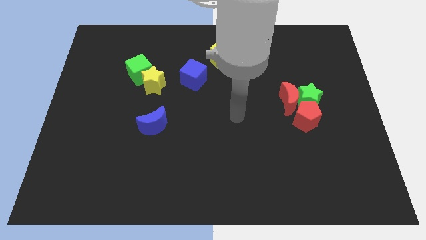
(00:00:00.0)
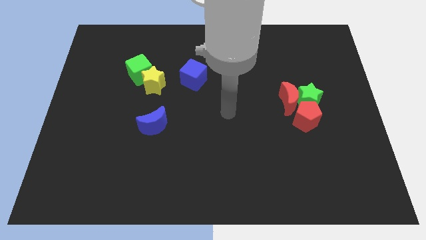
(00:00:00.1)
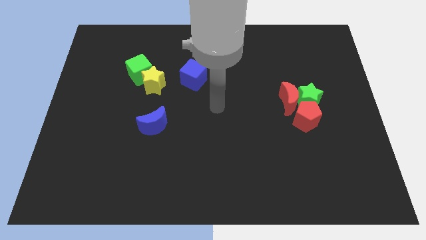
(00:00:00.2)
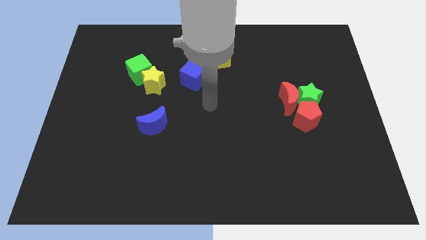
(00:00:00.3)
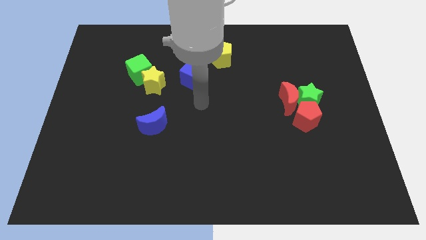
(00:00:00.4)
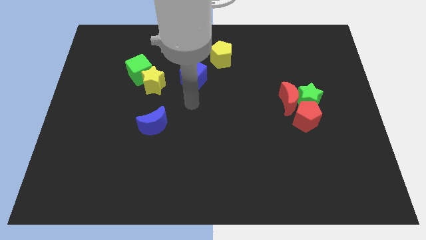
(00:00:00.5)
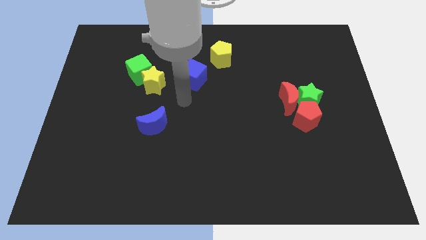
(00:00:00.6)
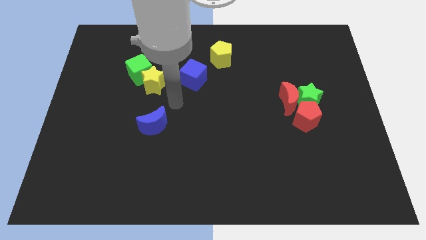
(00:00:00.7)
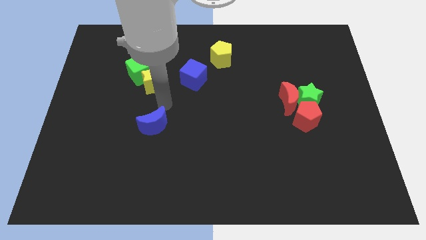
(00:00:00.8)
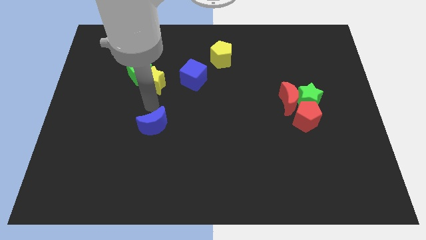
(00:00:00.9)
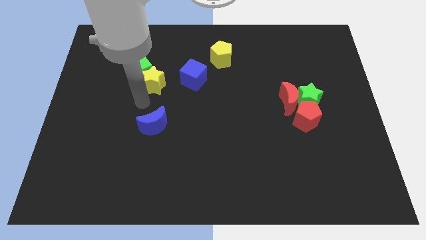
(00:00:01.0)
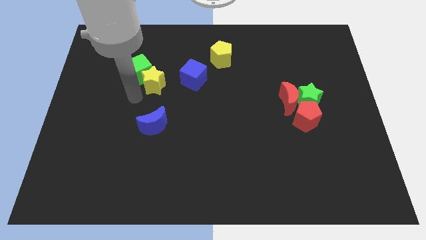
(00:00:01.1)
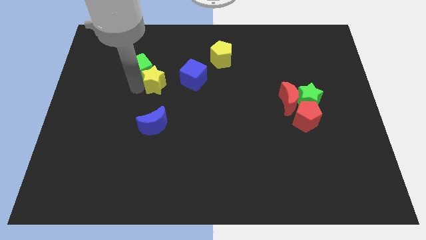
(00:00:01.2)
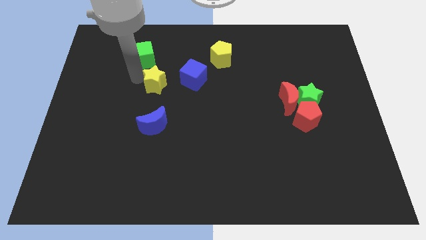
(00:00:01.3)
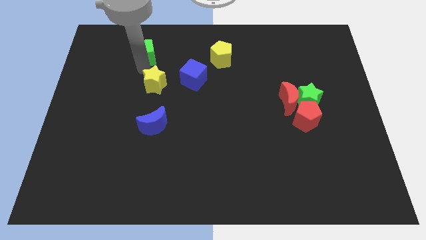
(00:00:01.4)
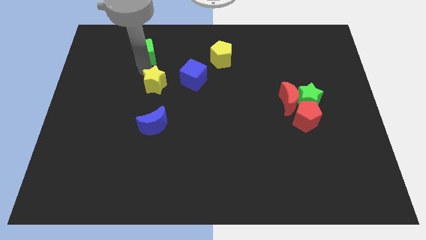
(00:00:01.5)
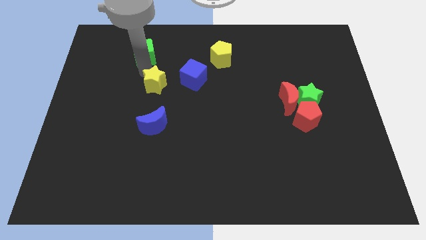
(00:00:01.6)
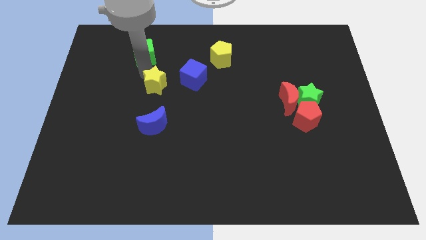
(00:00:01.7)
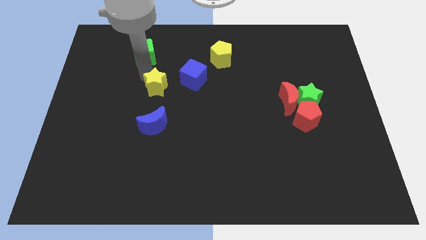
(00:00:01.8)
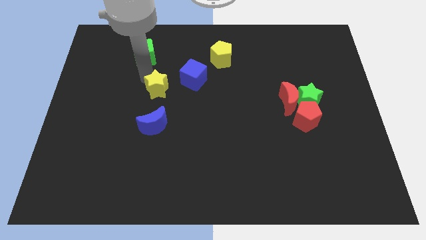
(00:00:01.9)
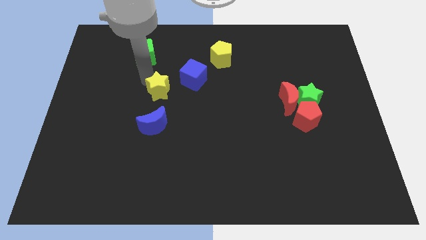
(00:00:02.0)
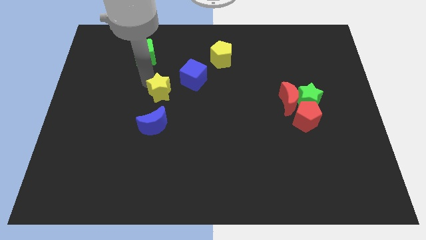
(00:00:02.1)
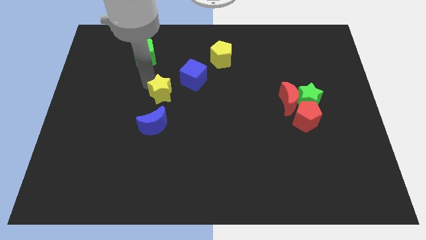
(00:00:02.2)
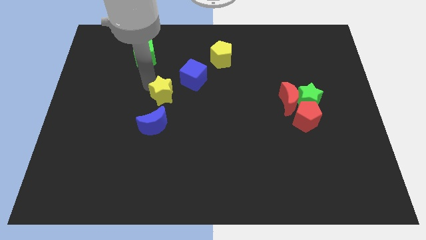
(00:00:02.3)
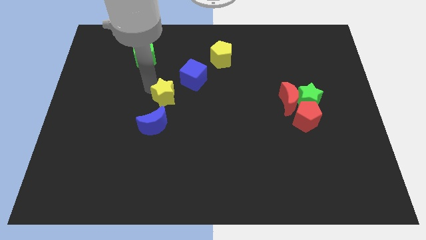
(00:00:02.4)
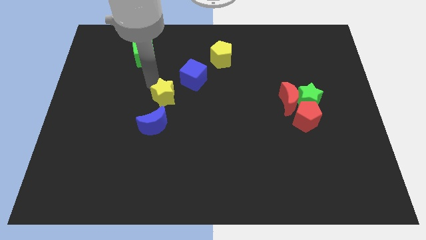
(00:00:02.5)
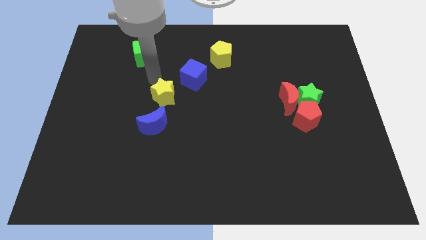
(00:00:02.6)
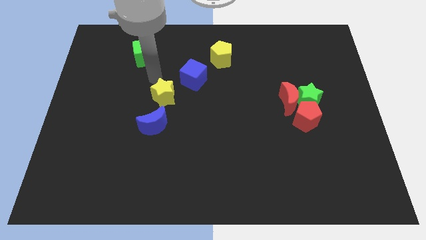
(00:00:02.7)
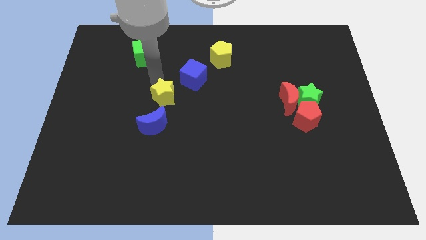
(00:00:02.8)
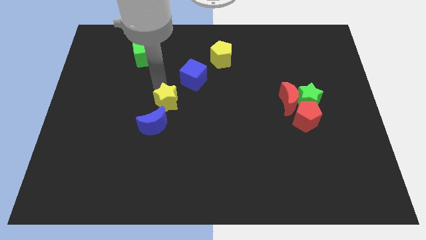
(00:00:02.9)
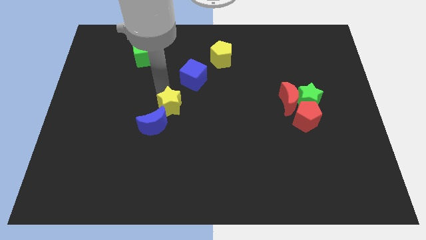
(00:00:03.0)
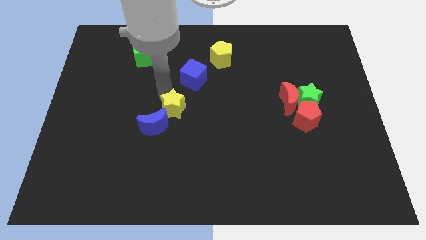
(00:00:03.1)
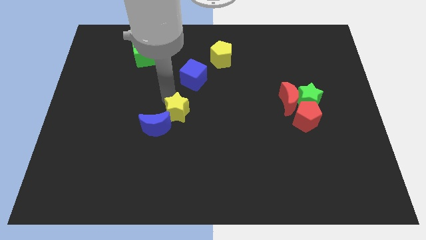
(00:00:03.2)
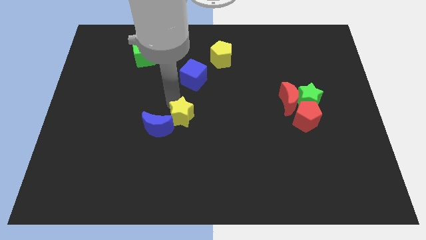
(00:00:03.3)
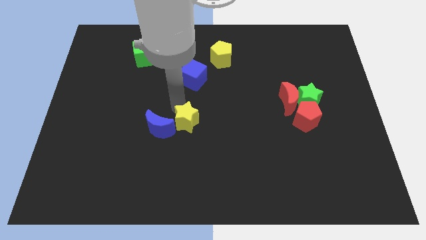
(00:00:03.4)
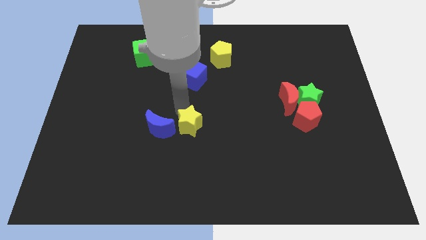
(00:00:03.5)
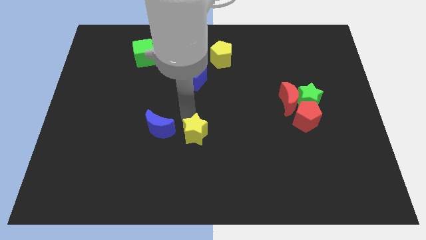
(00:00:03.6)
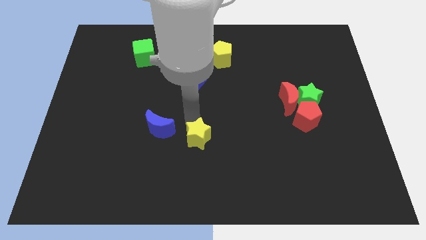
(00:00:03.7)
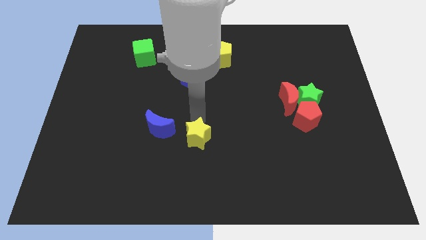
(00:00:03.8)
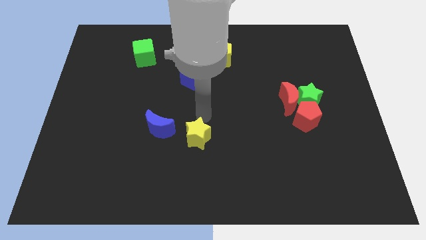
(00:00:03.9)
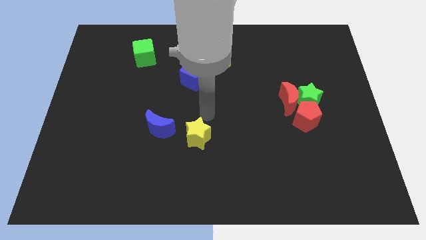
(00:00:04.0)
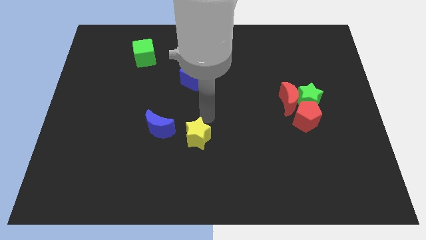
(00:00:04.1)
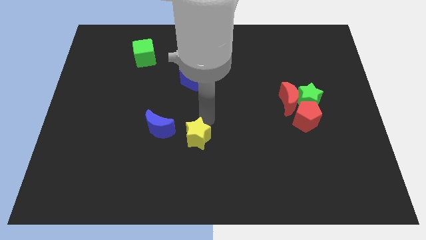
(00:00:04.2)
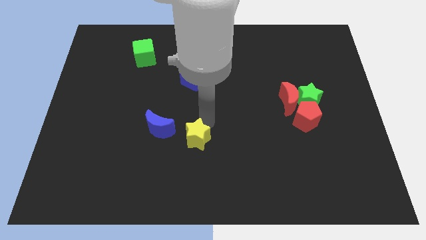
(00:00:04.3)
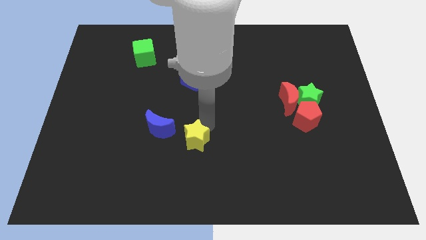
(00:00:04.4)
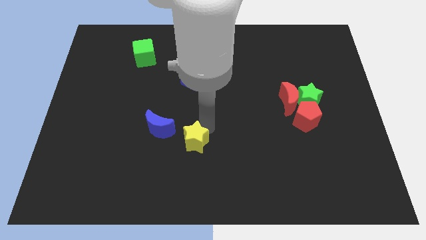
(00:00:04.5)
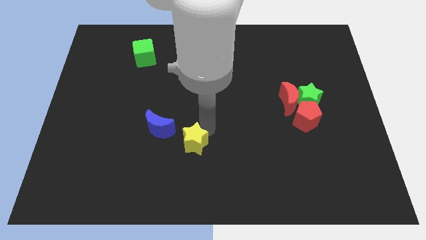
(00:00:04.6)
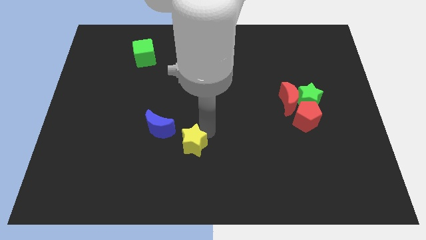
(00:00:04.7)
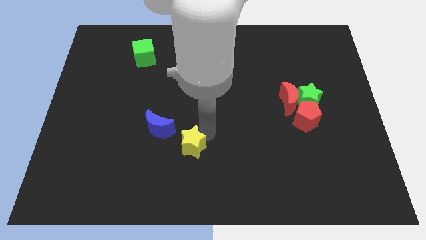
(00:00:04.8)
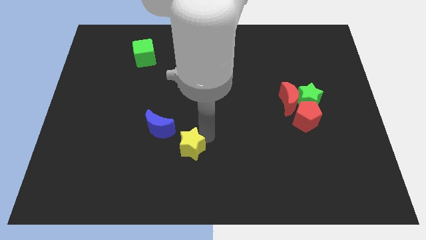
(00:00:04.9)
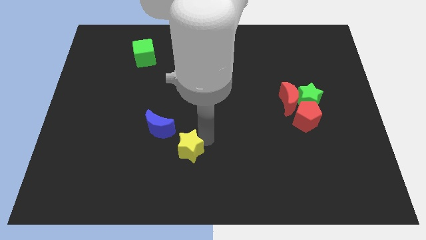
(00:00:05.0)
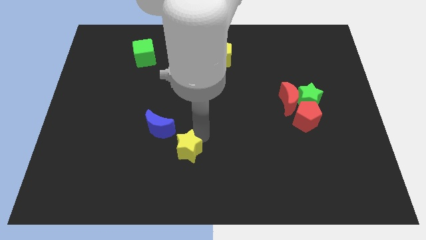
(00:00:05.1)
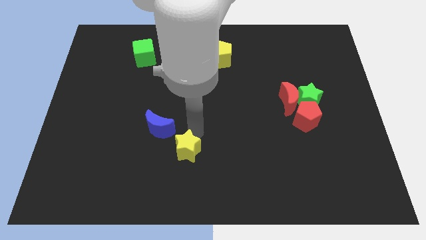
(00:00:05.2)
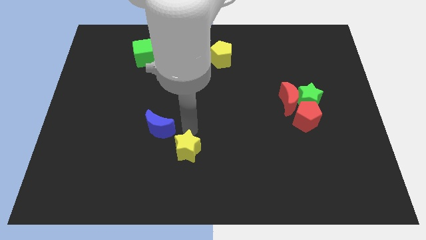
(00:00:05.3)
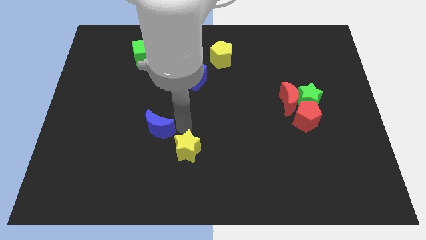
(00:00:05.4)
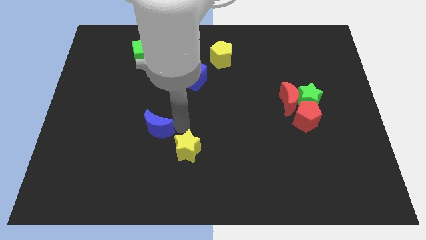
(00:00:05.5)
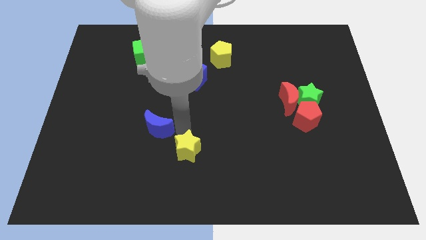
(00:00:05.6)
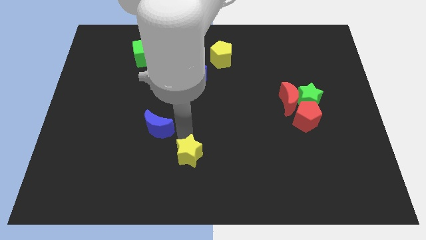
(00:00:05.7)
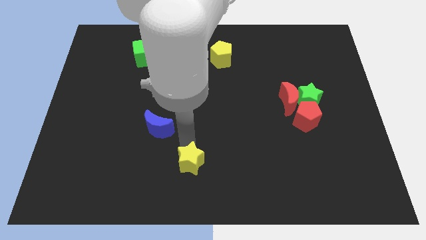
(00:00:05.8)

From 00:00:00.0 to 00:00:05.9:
push the yellow star to the bottom side
